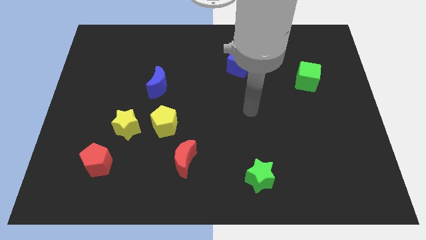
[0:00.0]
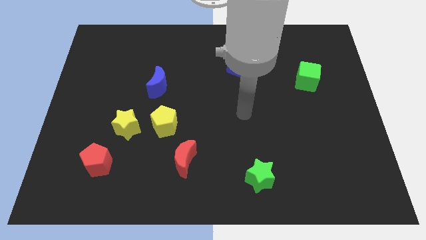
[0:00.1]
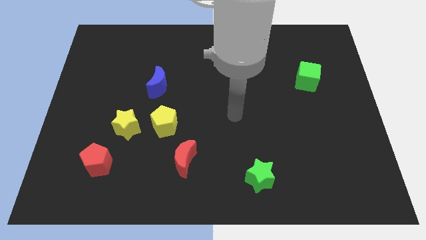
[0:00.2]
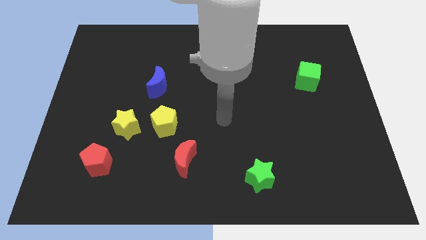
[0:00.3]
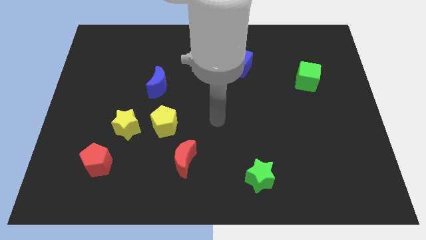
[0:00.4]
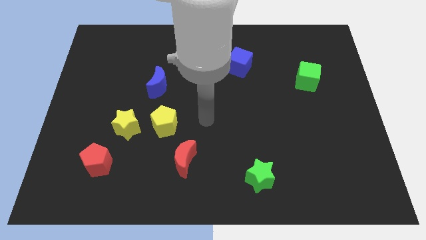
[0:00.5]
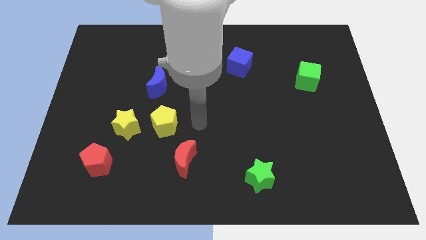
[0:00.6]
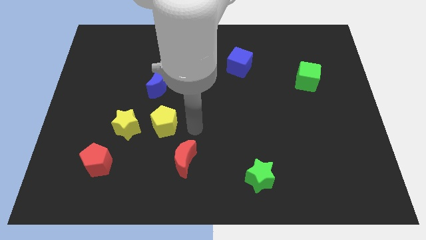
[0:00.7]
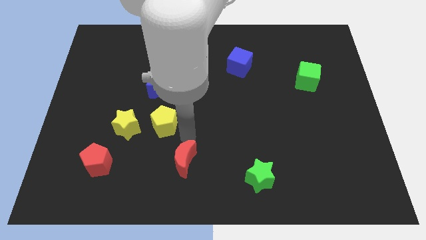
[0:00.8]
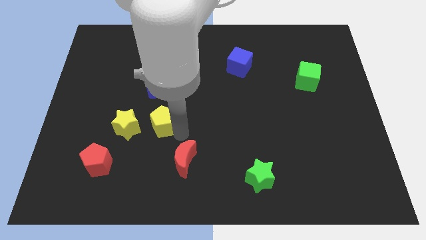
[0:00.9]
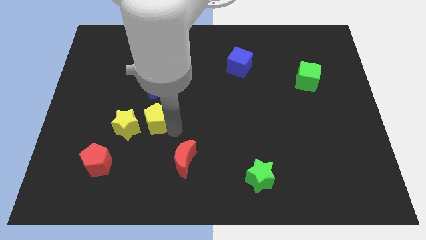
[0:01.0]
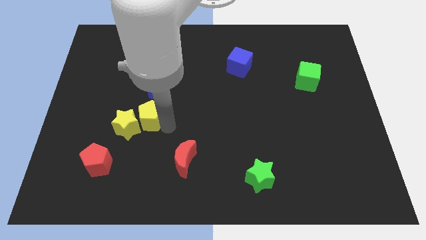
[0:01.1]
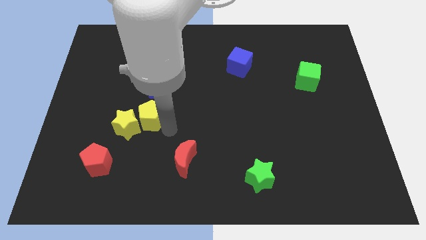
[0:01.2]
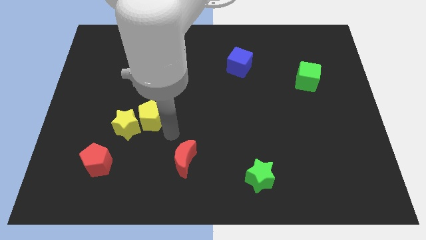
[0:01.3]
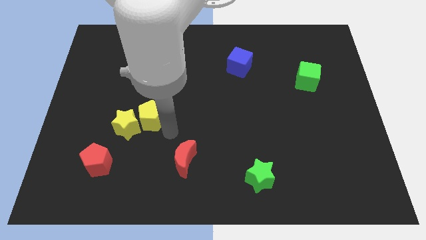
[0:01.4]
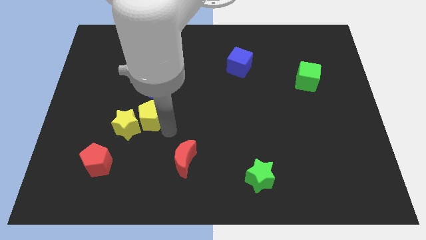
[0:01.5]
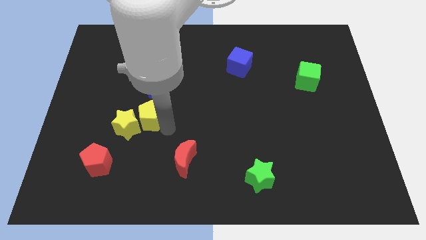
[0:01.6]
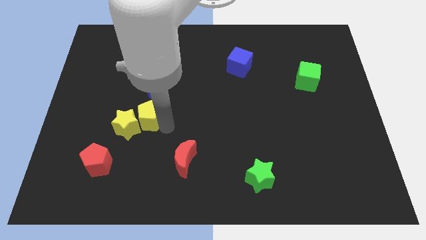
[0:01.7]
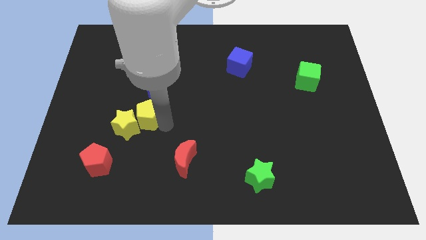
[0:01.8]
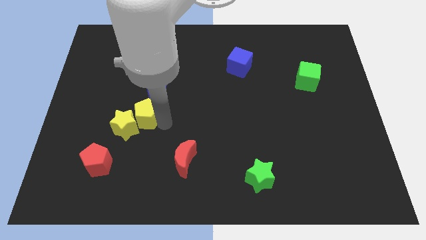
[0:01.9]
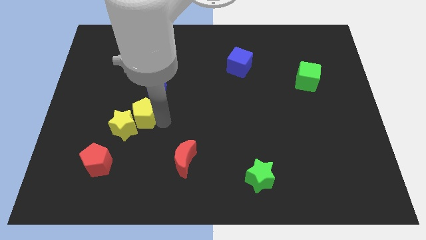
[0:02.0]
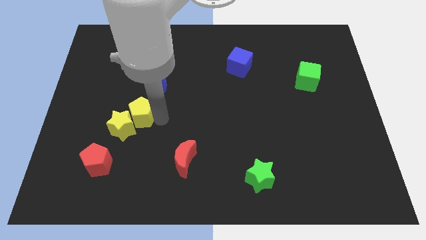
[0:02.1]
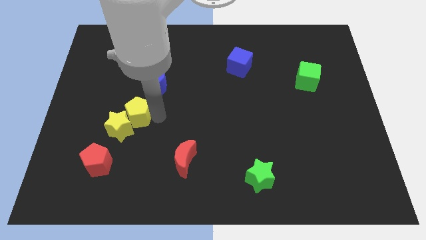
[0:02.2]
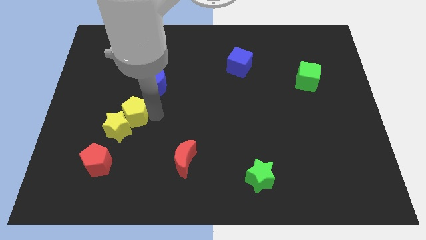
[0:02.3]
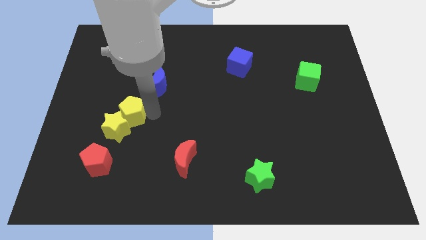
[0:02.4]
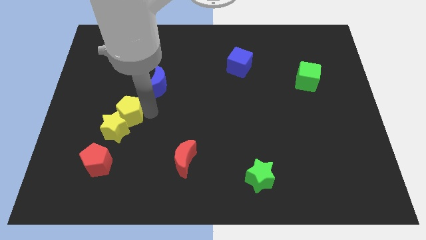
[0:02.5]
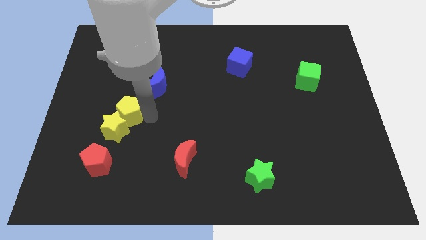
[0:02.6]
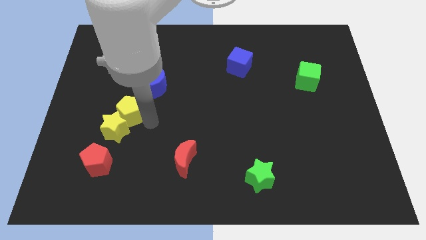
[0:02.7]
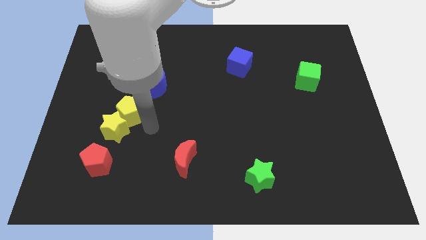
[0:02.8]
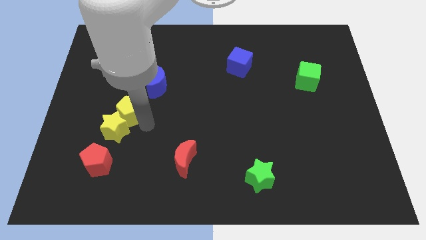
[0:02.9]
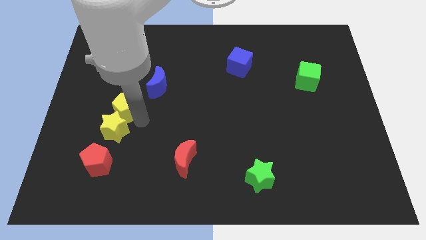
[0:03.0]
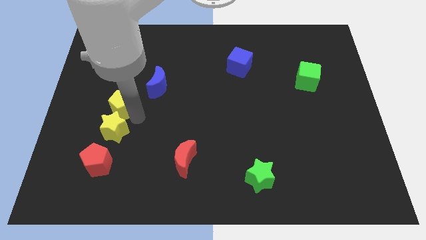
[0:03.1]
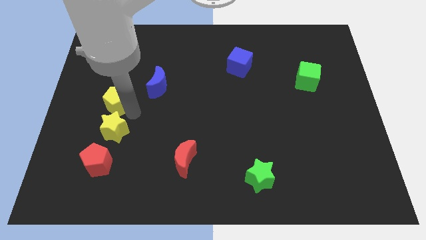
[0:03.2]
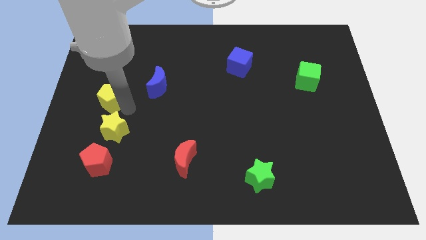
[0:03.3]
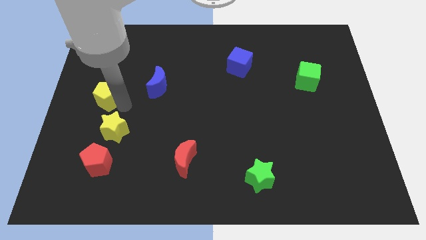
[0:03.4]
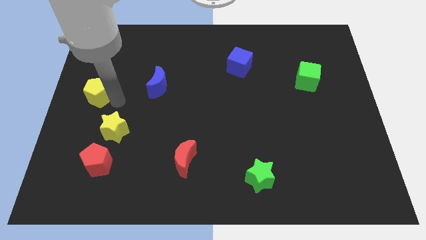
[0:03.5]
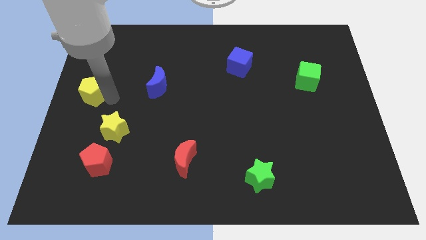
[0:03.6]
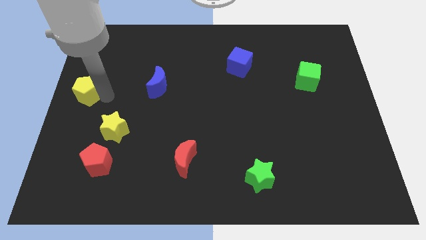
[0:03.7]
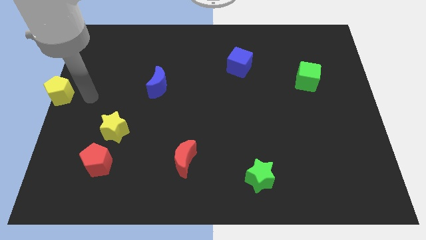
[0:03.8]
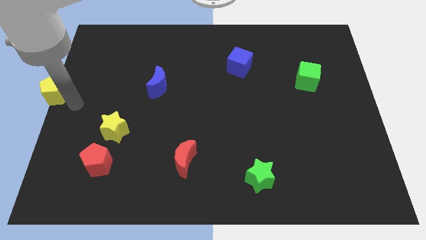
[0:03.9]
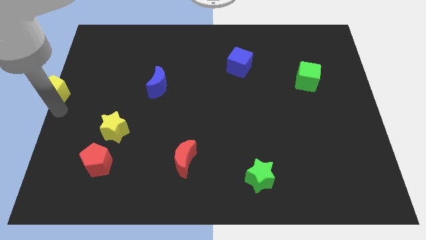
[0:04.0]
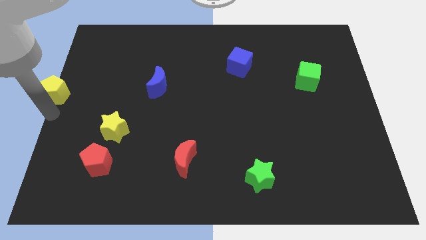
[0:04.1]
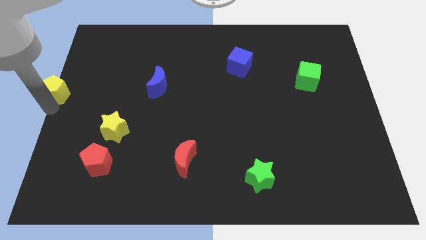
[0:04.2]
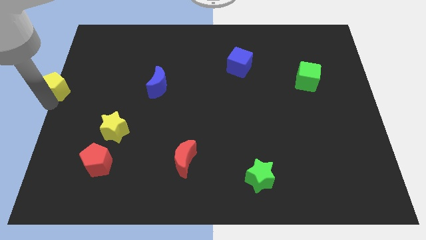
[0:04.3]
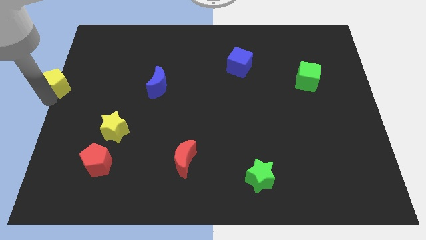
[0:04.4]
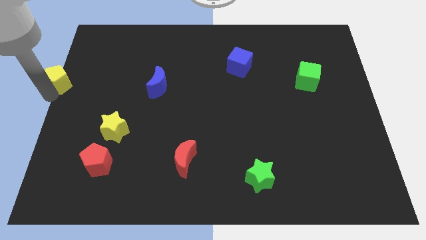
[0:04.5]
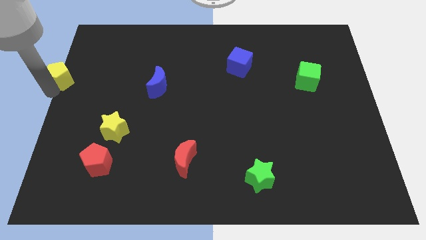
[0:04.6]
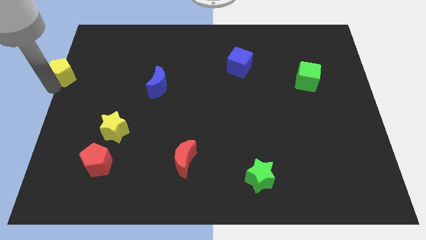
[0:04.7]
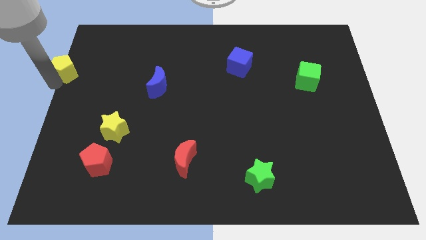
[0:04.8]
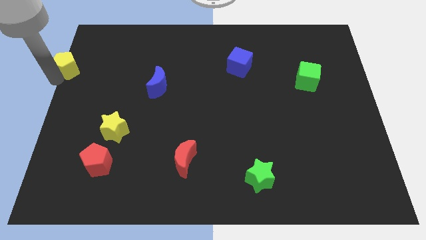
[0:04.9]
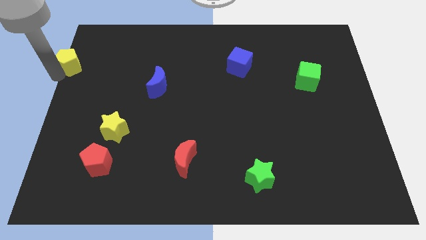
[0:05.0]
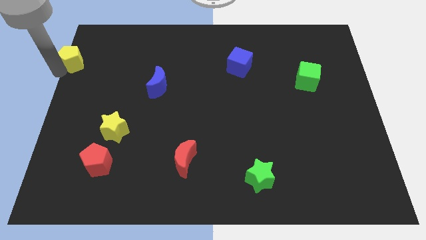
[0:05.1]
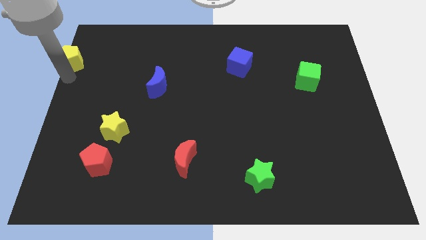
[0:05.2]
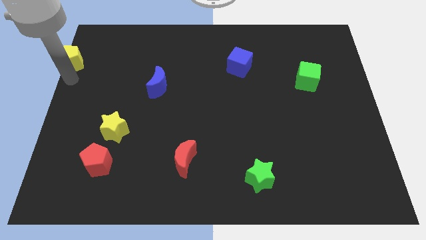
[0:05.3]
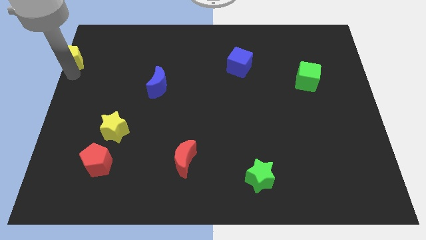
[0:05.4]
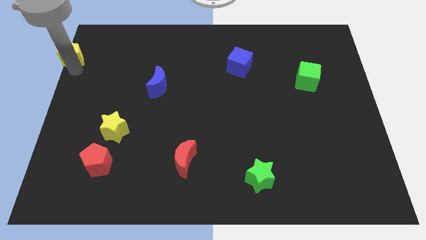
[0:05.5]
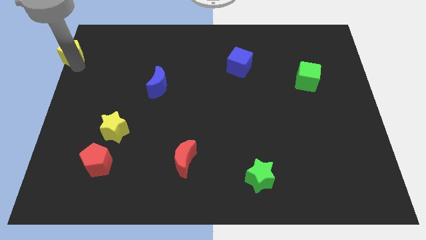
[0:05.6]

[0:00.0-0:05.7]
move the yellow pentagon to the upper left corner

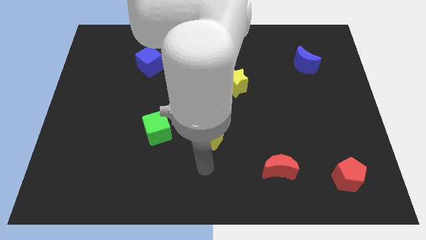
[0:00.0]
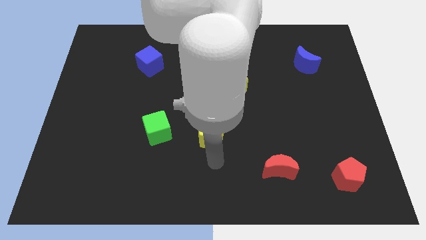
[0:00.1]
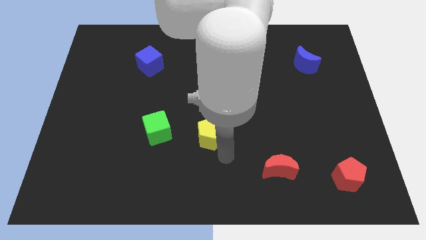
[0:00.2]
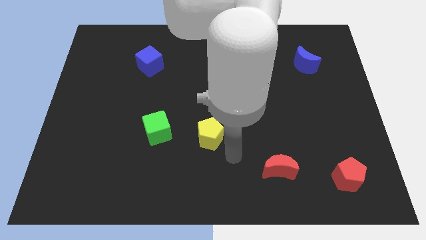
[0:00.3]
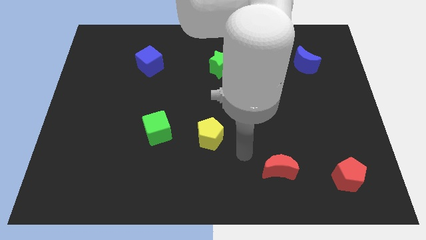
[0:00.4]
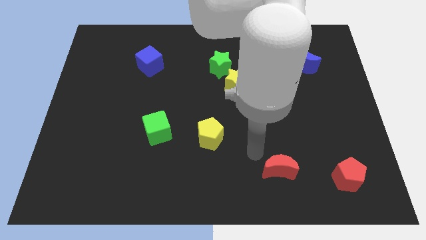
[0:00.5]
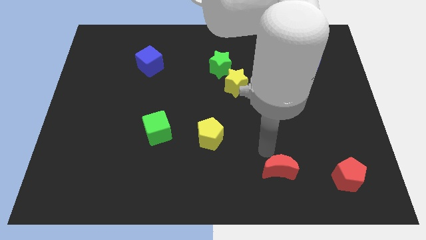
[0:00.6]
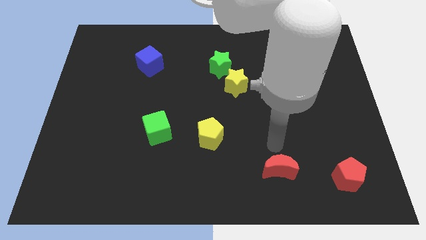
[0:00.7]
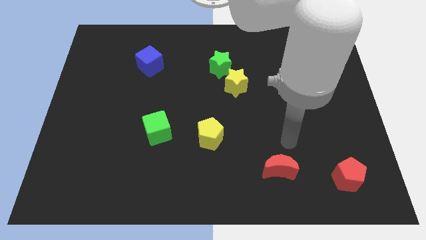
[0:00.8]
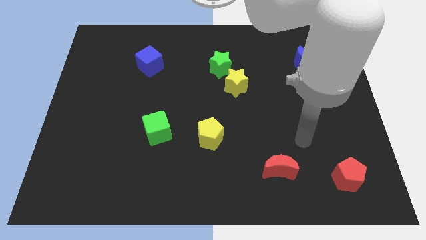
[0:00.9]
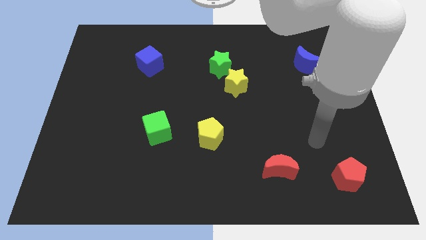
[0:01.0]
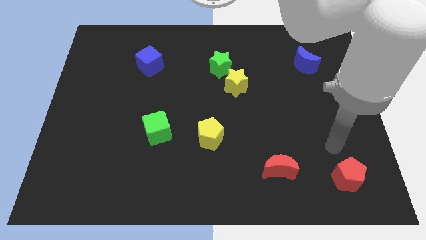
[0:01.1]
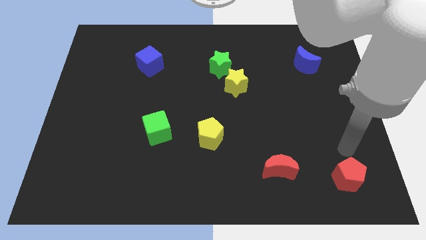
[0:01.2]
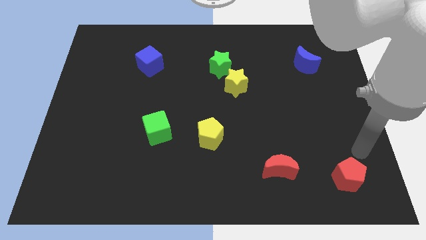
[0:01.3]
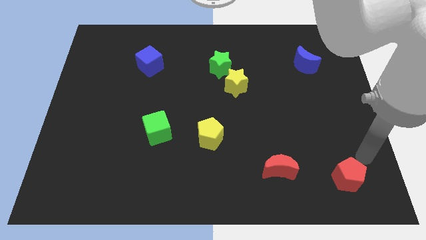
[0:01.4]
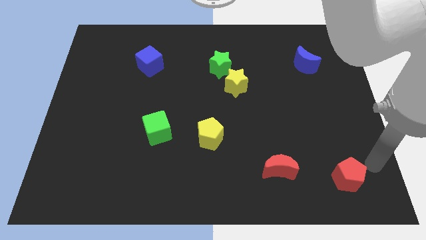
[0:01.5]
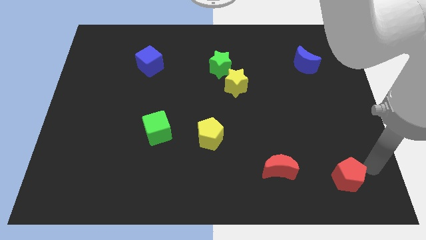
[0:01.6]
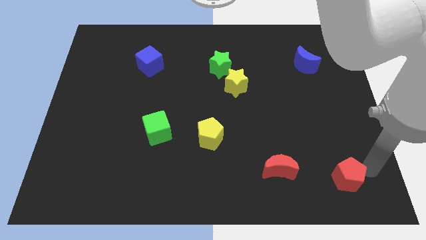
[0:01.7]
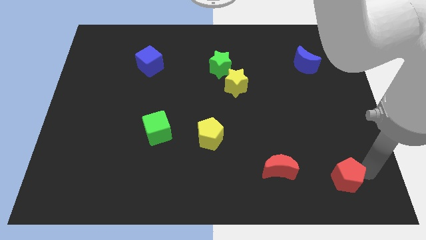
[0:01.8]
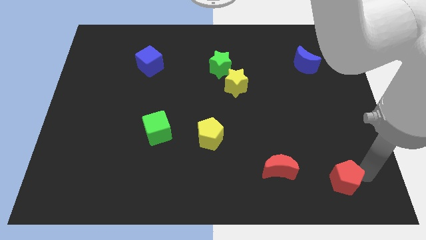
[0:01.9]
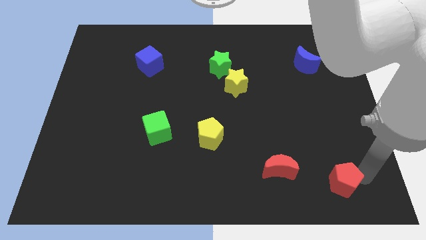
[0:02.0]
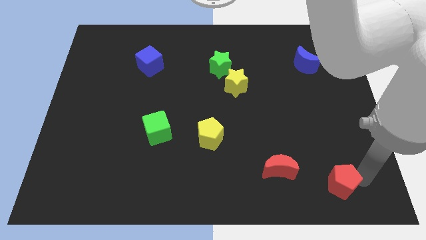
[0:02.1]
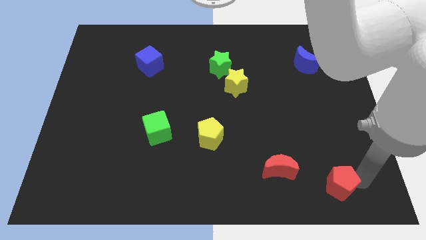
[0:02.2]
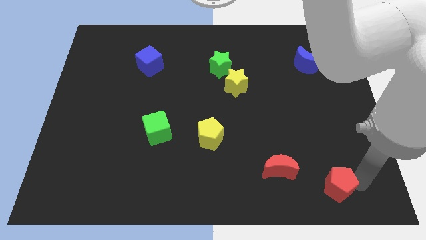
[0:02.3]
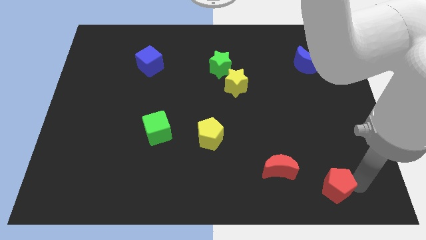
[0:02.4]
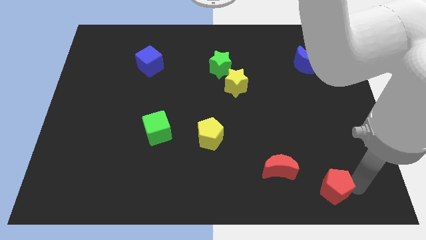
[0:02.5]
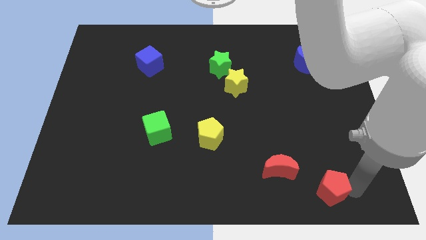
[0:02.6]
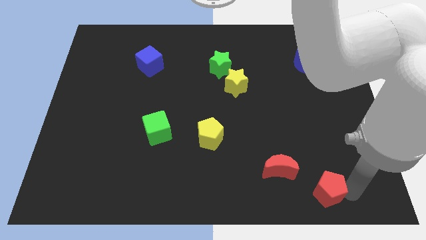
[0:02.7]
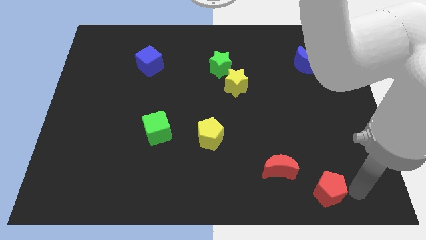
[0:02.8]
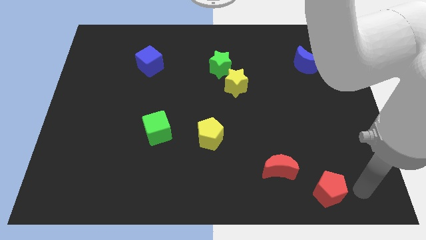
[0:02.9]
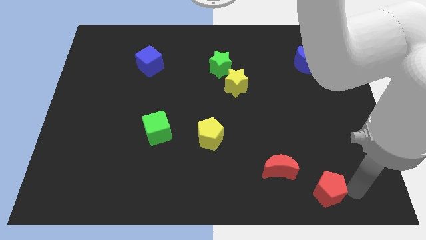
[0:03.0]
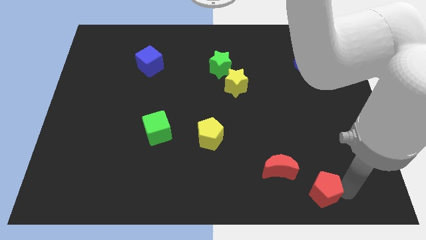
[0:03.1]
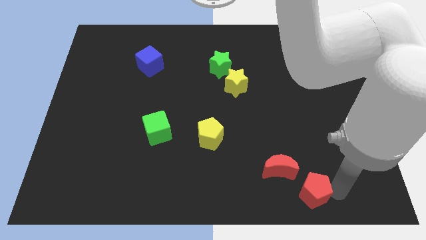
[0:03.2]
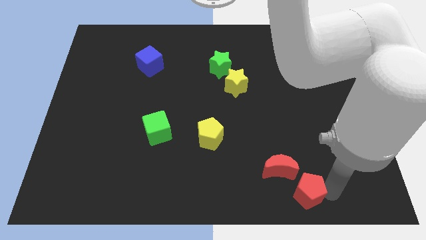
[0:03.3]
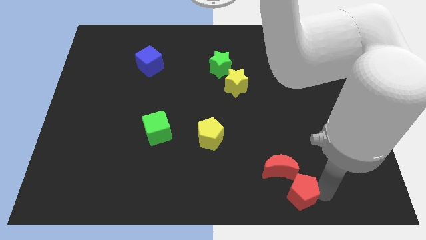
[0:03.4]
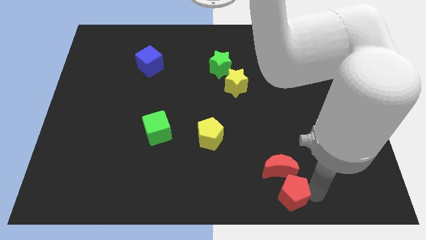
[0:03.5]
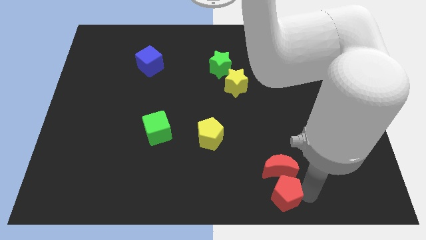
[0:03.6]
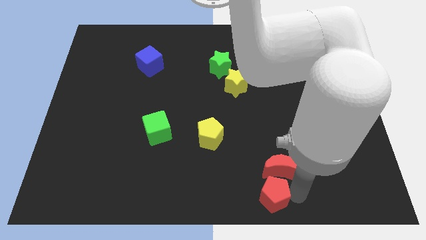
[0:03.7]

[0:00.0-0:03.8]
push the red pentagon to the bottom side
